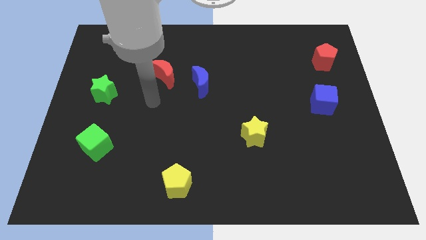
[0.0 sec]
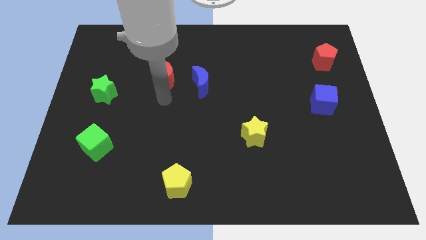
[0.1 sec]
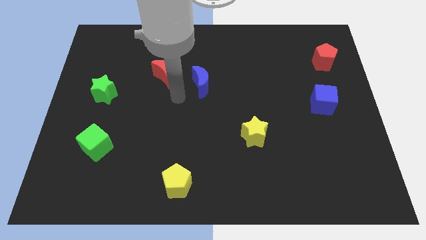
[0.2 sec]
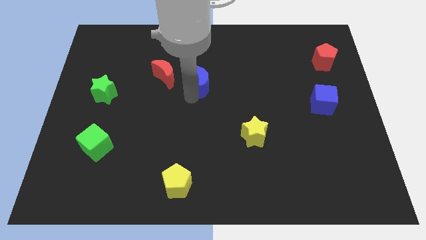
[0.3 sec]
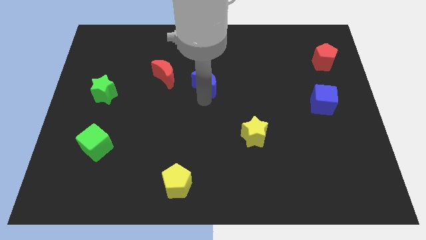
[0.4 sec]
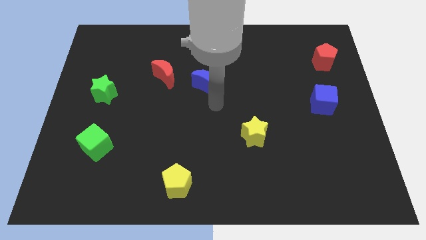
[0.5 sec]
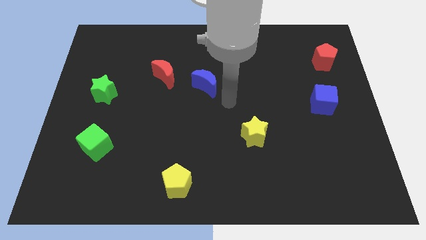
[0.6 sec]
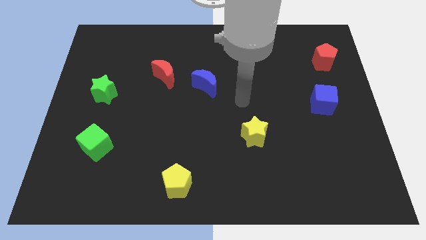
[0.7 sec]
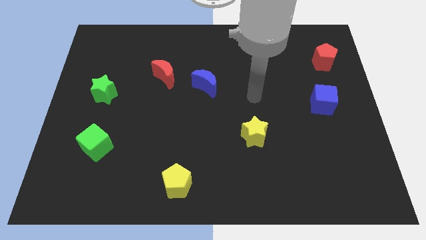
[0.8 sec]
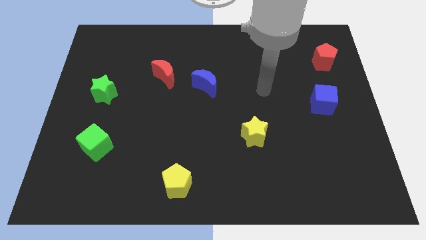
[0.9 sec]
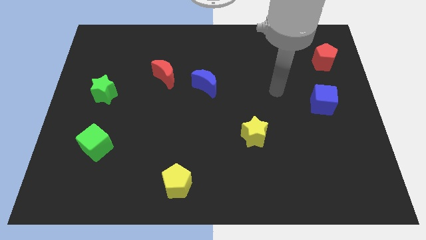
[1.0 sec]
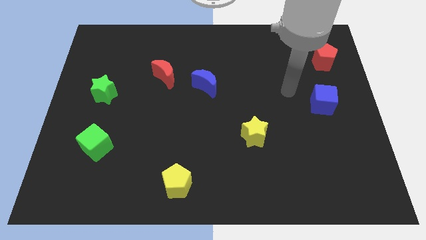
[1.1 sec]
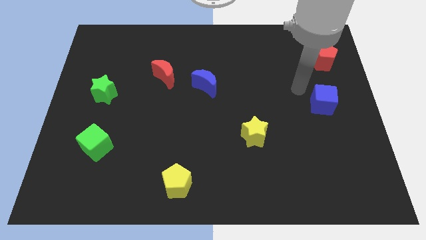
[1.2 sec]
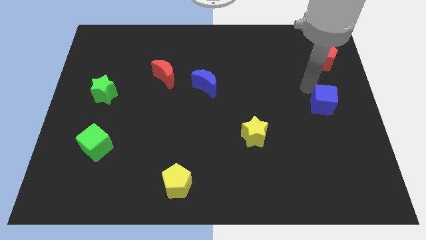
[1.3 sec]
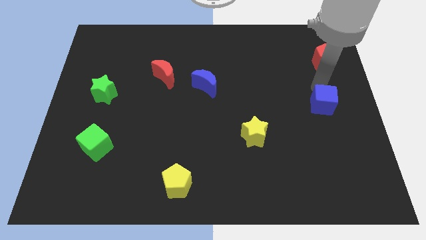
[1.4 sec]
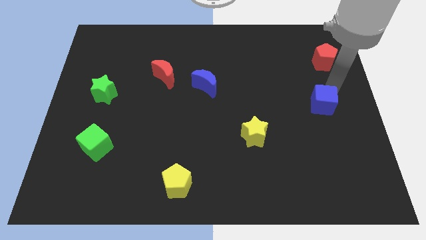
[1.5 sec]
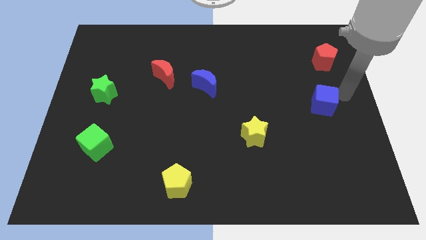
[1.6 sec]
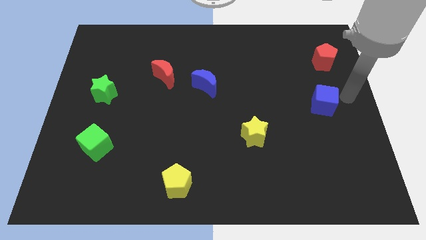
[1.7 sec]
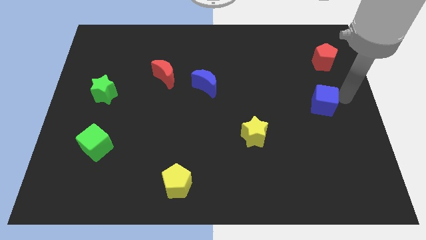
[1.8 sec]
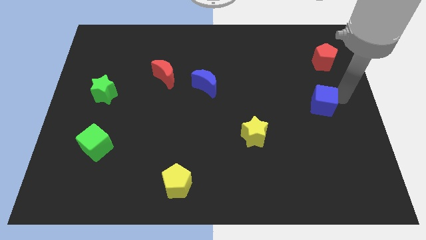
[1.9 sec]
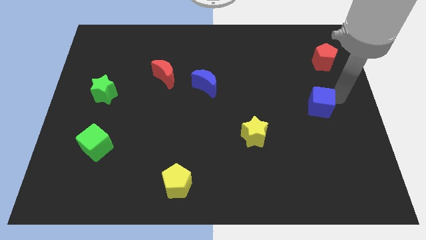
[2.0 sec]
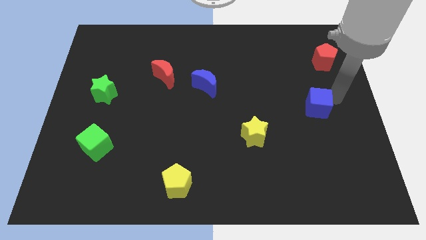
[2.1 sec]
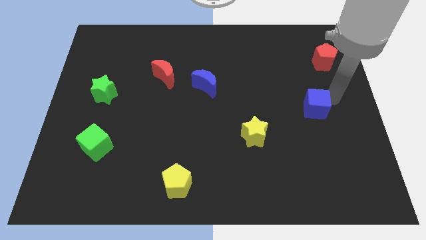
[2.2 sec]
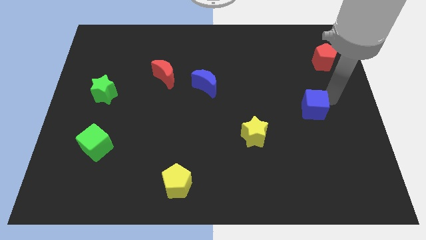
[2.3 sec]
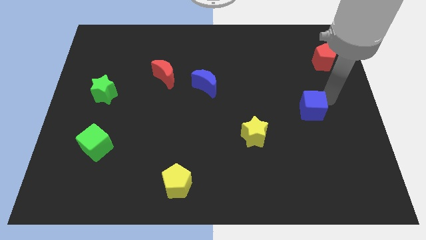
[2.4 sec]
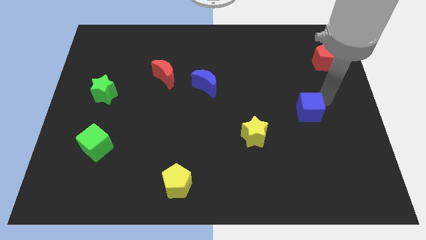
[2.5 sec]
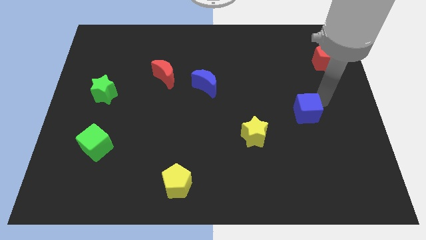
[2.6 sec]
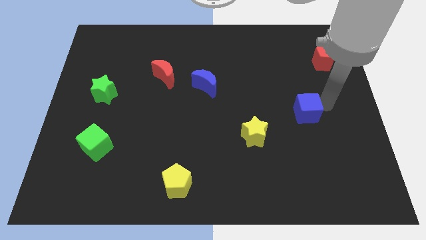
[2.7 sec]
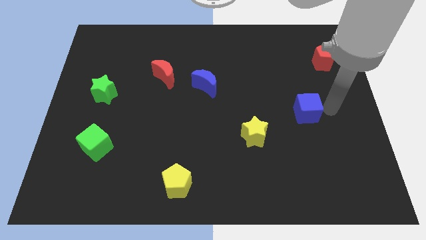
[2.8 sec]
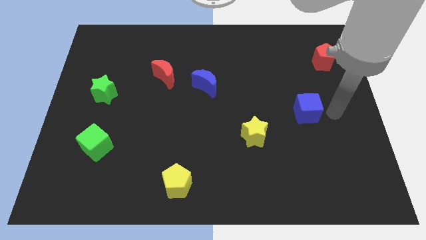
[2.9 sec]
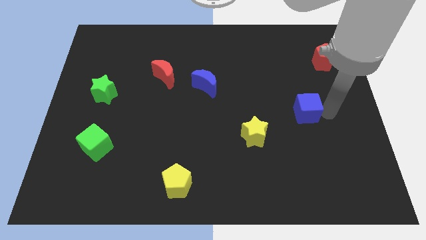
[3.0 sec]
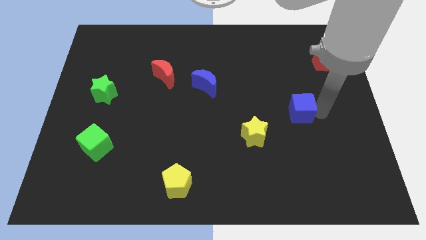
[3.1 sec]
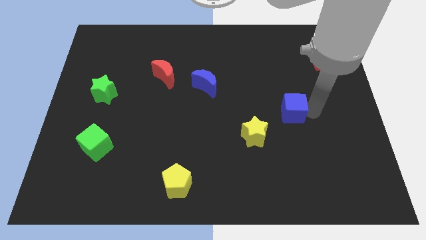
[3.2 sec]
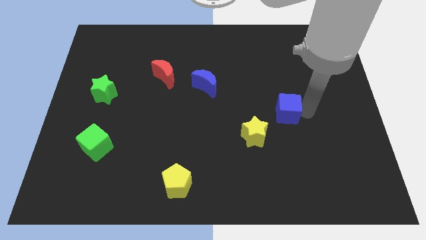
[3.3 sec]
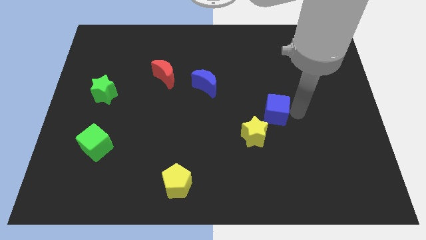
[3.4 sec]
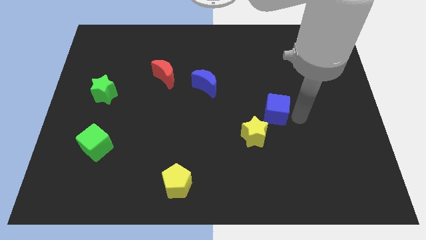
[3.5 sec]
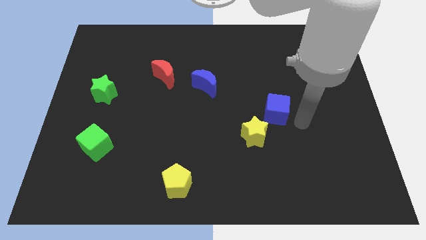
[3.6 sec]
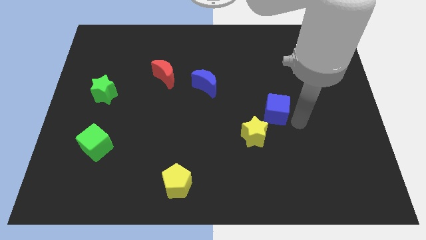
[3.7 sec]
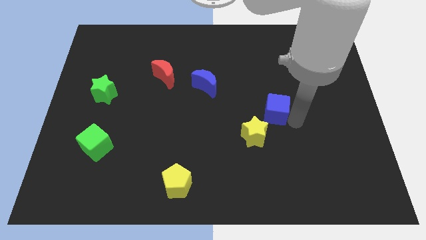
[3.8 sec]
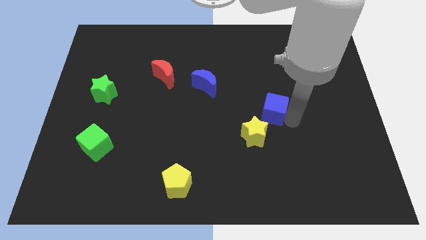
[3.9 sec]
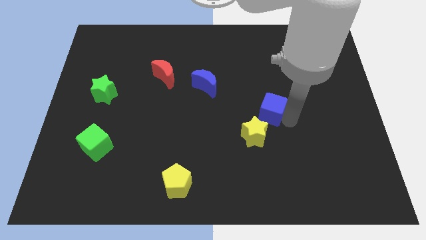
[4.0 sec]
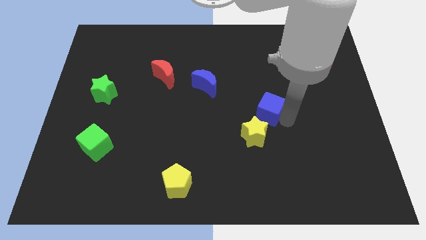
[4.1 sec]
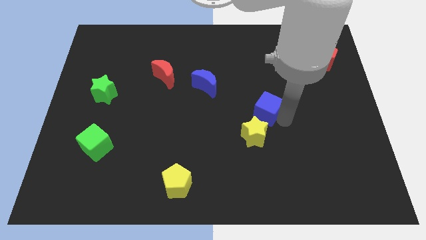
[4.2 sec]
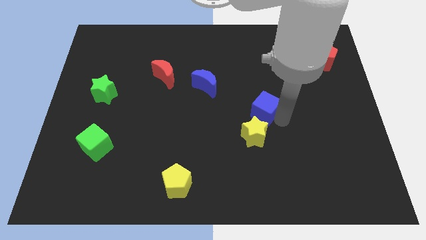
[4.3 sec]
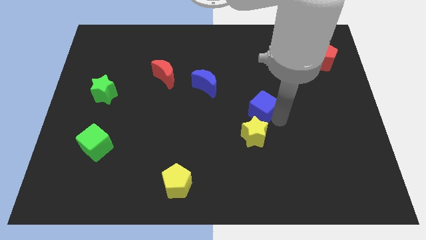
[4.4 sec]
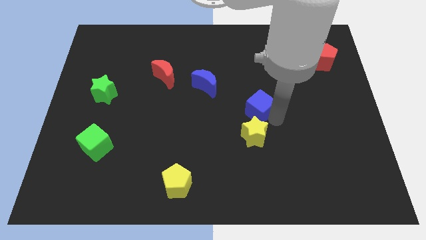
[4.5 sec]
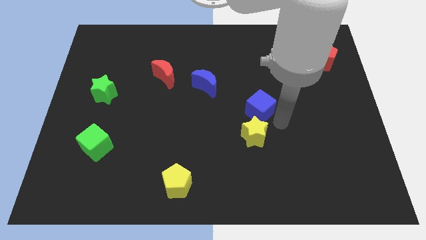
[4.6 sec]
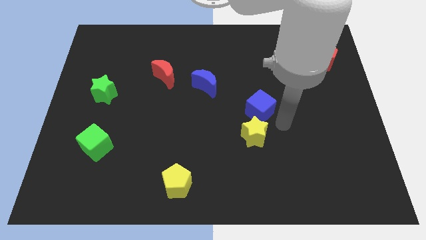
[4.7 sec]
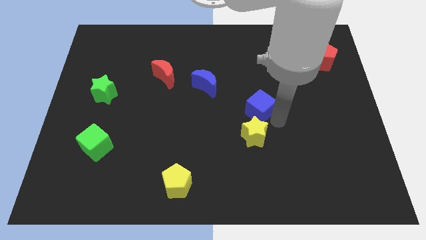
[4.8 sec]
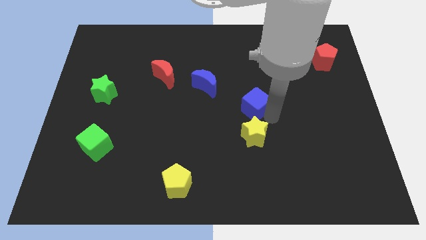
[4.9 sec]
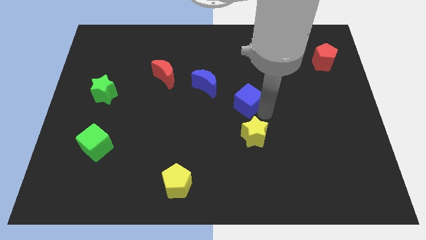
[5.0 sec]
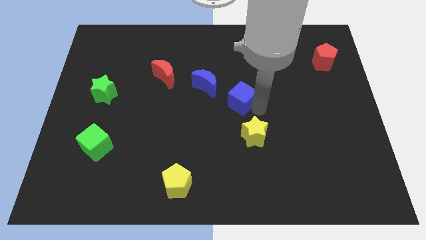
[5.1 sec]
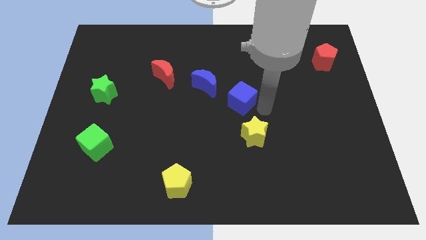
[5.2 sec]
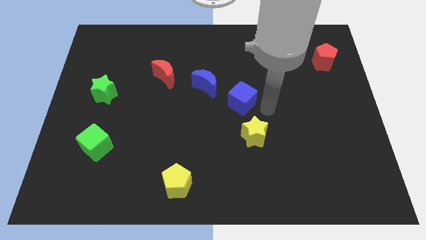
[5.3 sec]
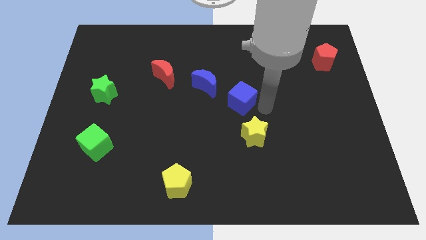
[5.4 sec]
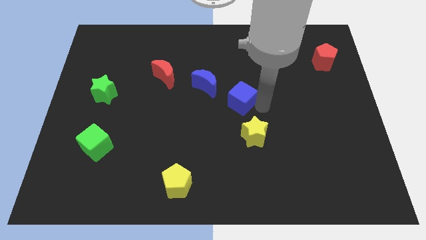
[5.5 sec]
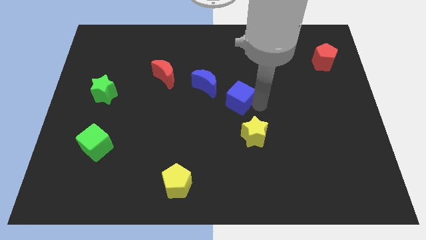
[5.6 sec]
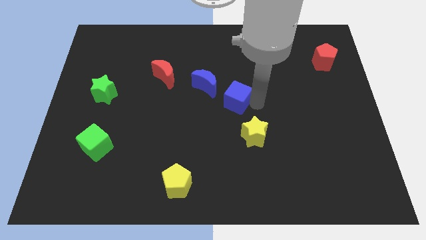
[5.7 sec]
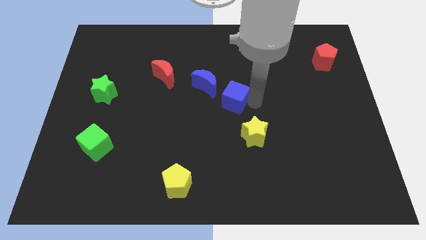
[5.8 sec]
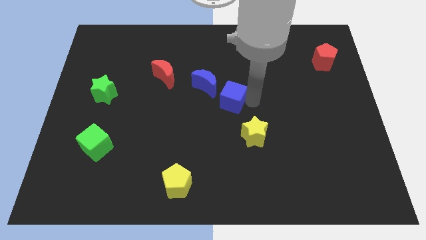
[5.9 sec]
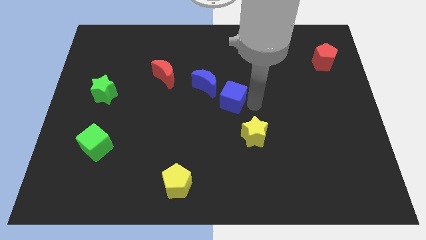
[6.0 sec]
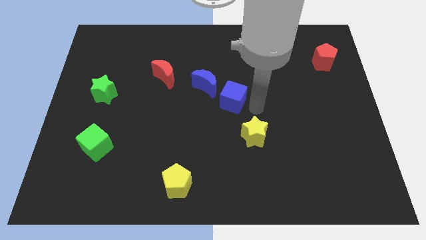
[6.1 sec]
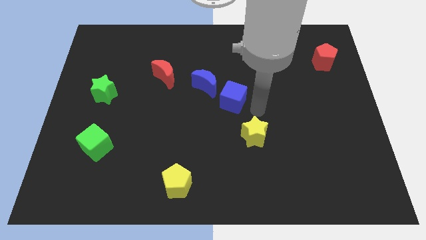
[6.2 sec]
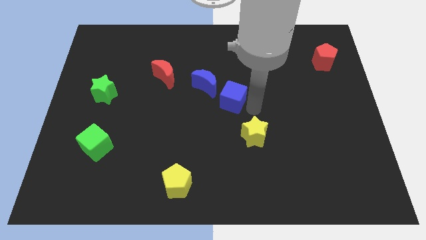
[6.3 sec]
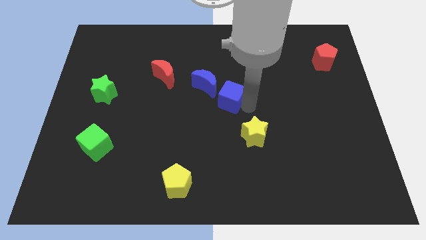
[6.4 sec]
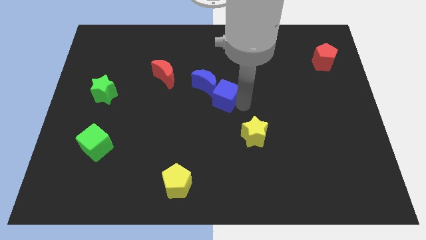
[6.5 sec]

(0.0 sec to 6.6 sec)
slide the blue cube towards the blue moon

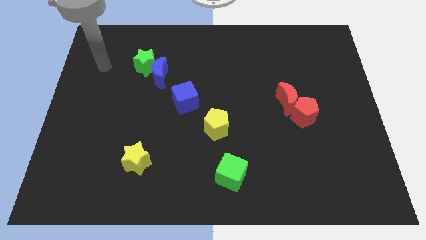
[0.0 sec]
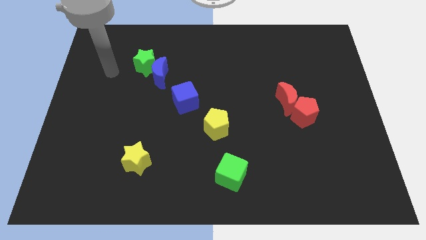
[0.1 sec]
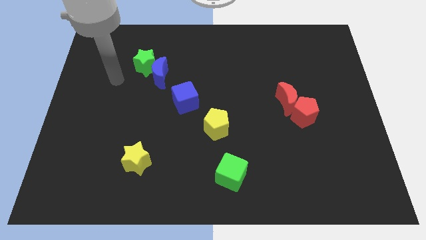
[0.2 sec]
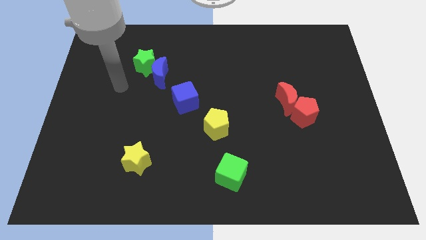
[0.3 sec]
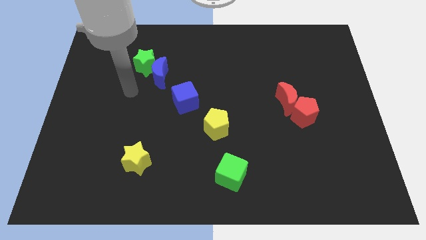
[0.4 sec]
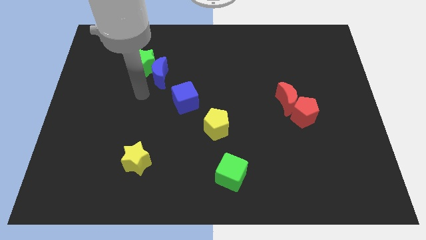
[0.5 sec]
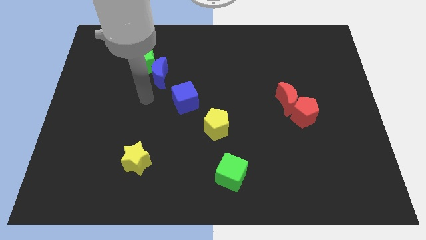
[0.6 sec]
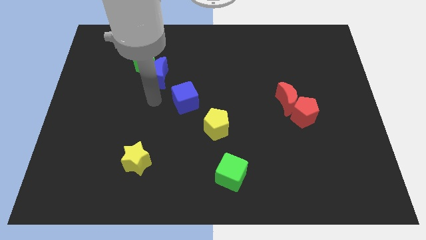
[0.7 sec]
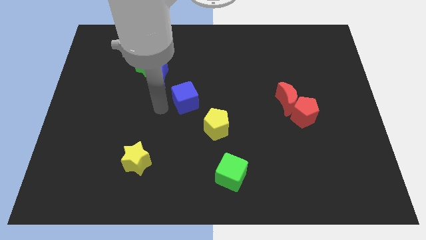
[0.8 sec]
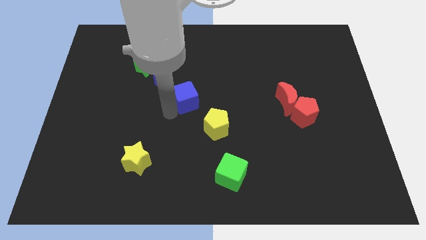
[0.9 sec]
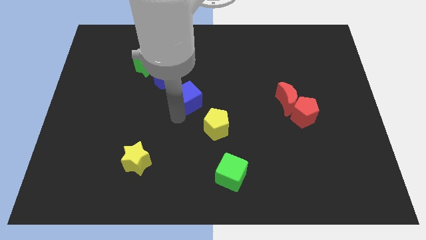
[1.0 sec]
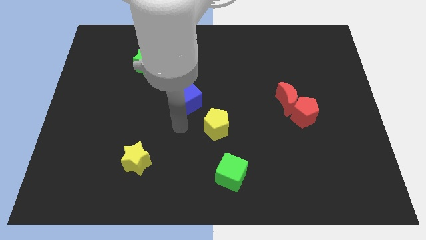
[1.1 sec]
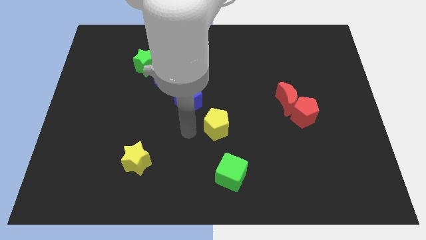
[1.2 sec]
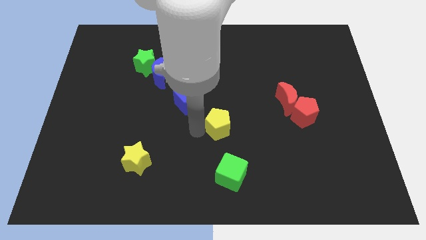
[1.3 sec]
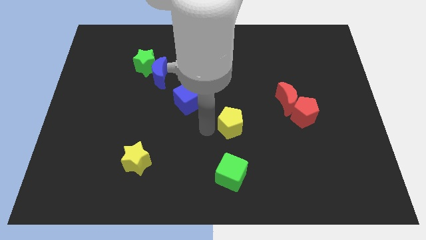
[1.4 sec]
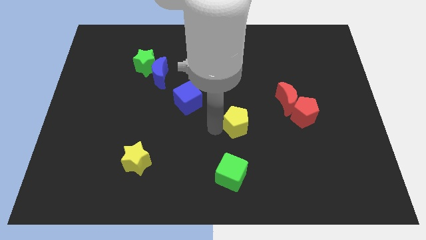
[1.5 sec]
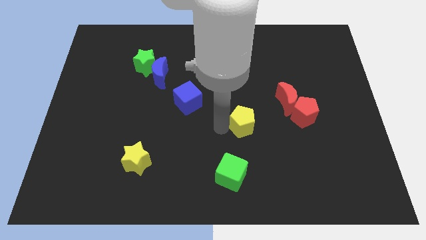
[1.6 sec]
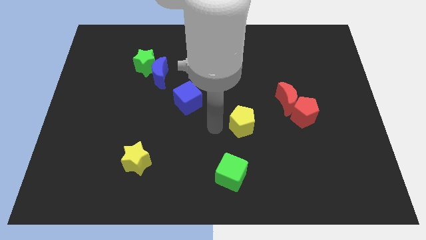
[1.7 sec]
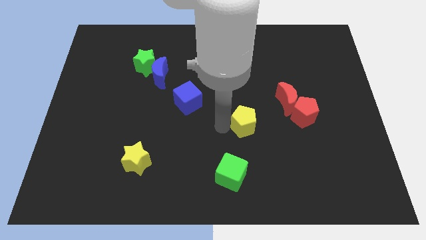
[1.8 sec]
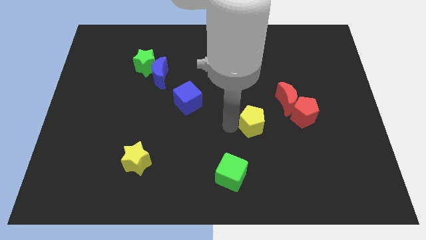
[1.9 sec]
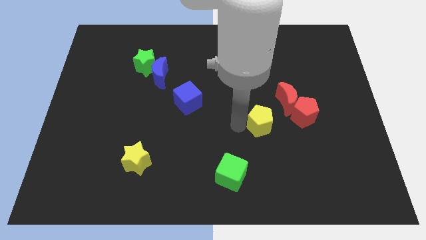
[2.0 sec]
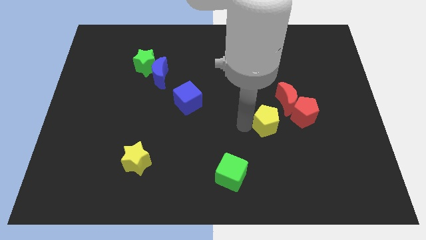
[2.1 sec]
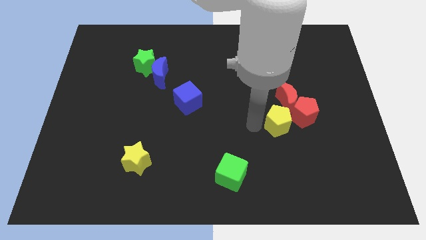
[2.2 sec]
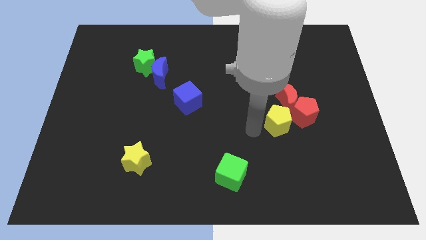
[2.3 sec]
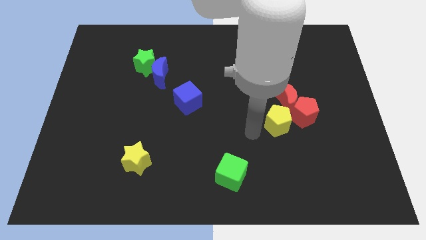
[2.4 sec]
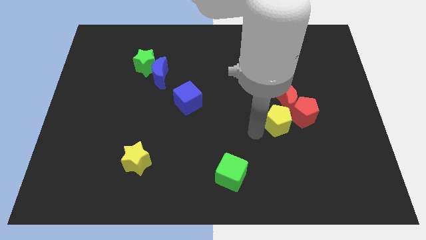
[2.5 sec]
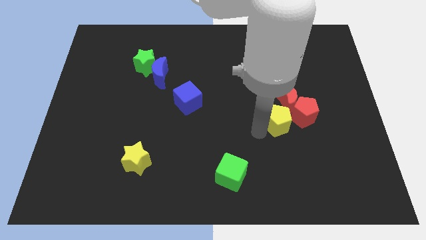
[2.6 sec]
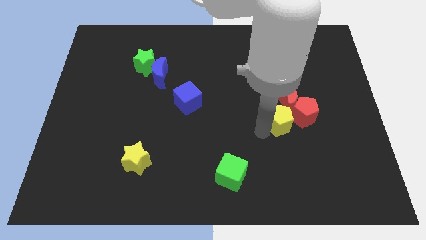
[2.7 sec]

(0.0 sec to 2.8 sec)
slide the yellow pentagon next to the red pentagon
